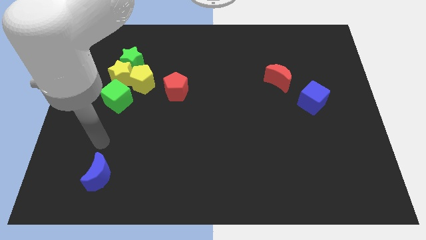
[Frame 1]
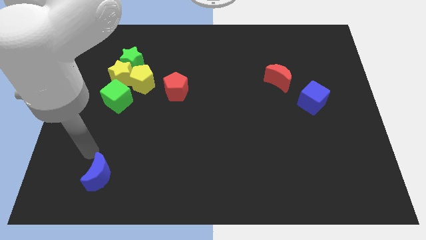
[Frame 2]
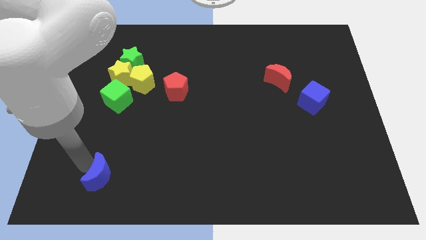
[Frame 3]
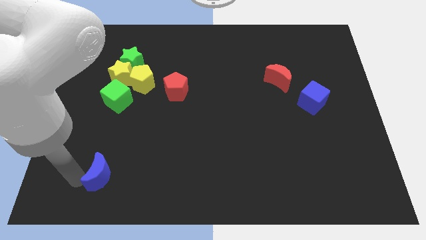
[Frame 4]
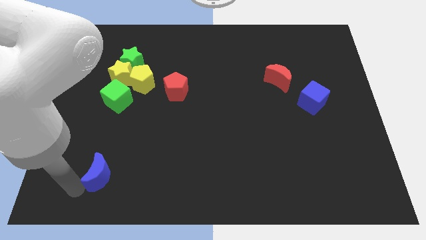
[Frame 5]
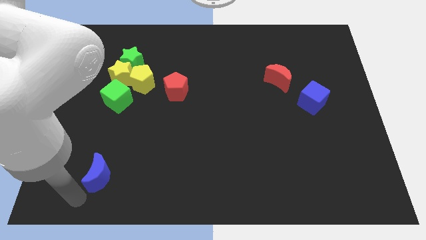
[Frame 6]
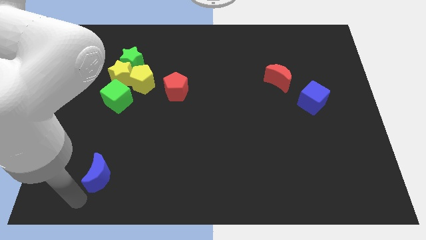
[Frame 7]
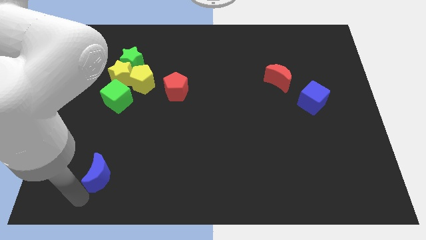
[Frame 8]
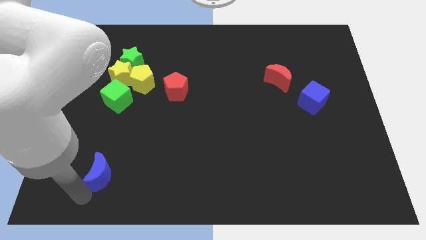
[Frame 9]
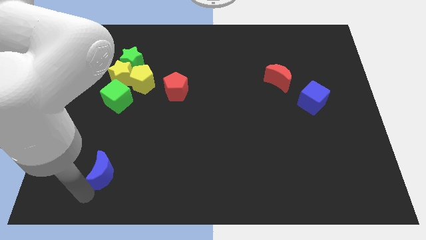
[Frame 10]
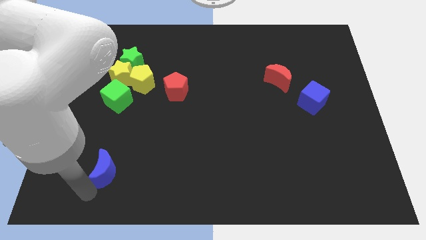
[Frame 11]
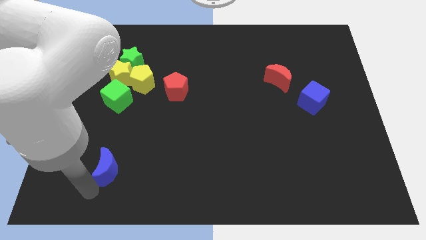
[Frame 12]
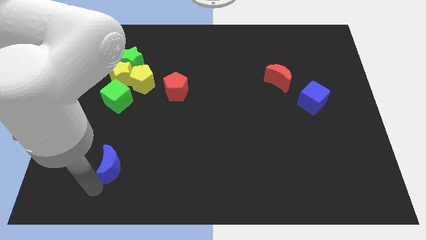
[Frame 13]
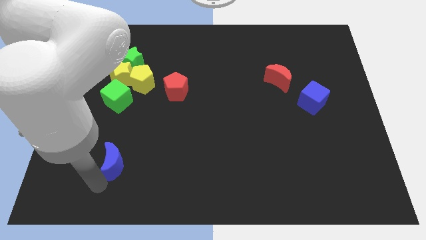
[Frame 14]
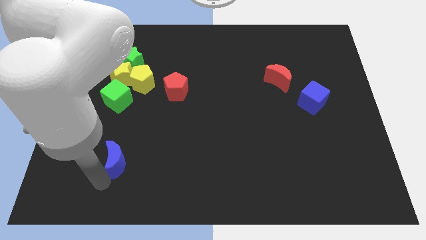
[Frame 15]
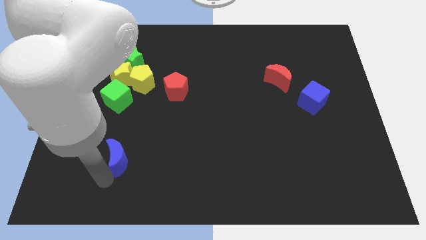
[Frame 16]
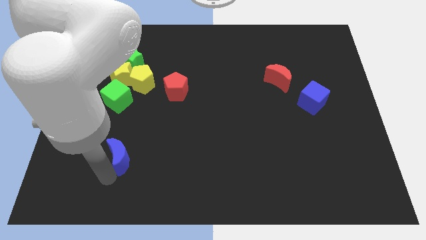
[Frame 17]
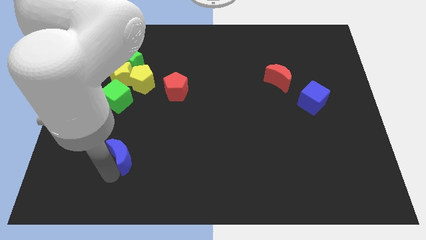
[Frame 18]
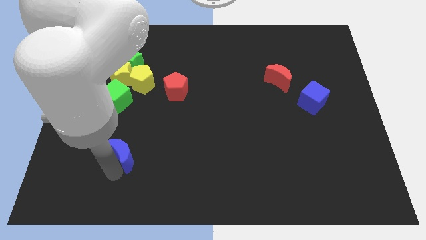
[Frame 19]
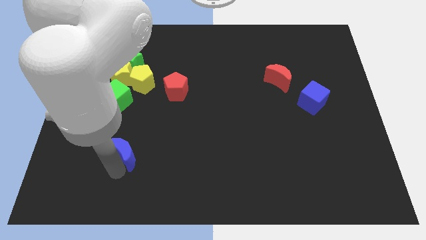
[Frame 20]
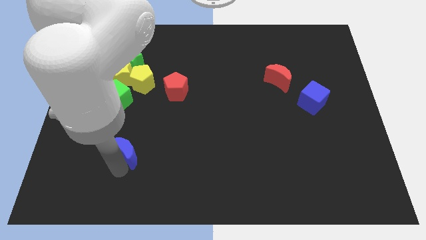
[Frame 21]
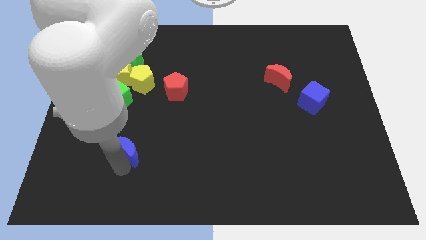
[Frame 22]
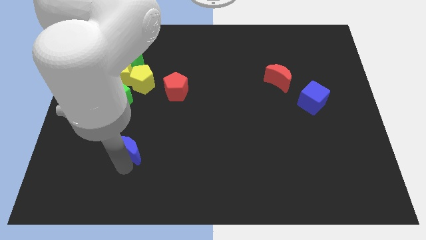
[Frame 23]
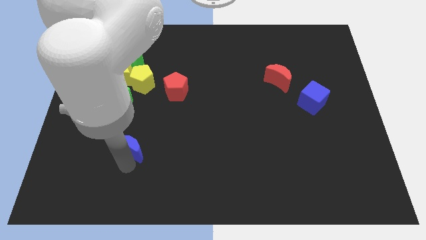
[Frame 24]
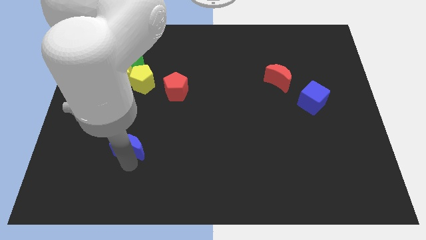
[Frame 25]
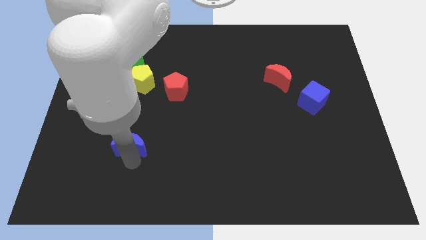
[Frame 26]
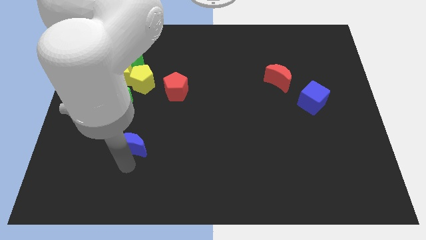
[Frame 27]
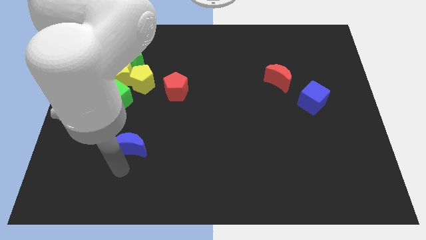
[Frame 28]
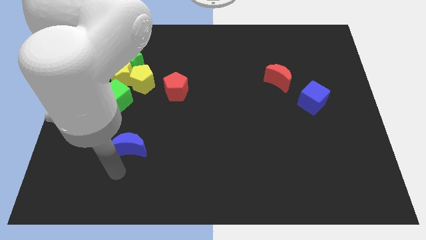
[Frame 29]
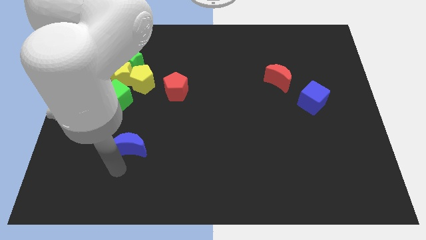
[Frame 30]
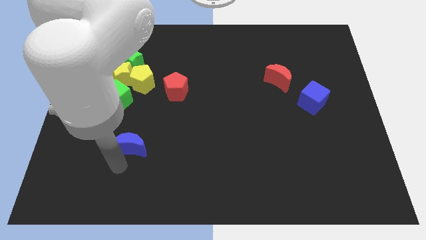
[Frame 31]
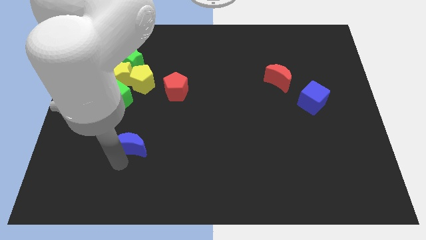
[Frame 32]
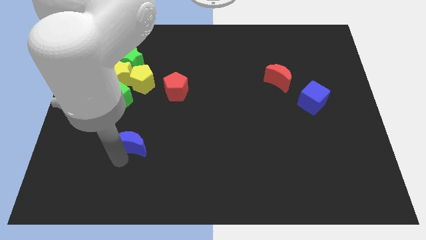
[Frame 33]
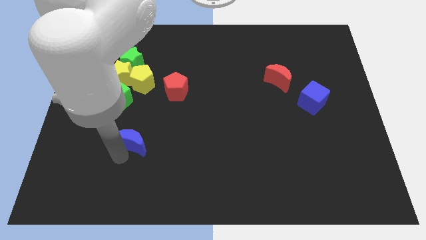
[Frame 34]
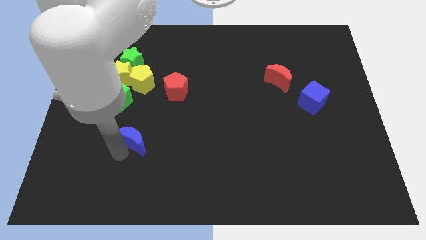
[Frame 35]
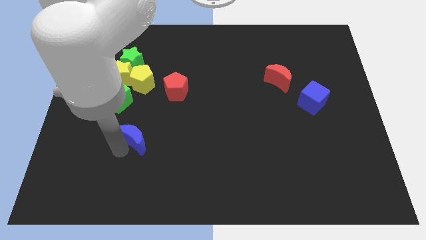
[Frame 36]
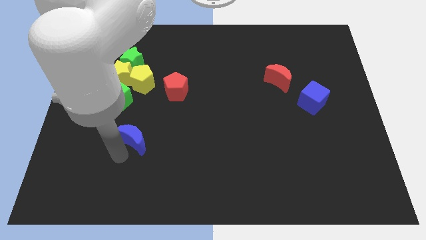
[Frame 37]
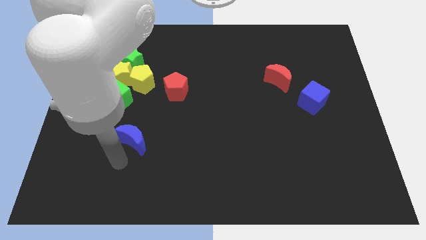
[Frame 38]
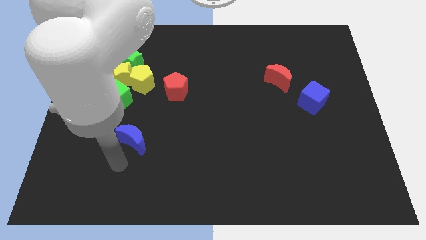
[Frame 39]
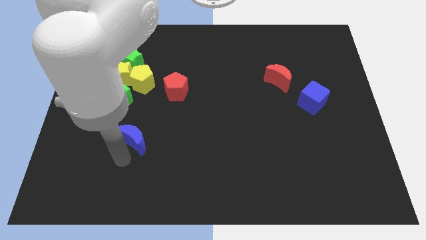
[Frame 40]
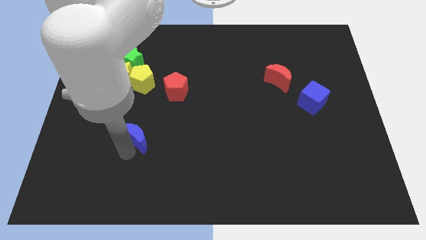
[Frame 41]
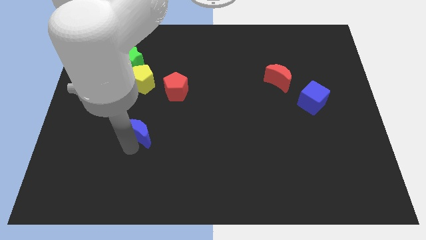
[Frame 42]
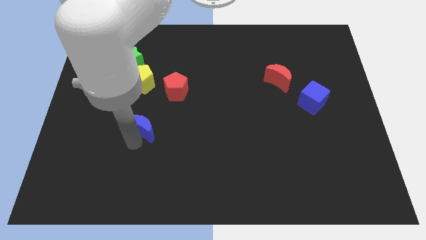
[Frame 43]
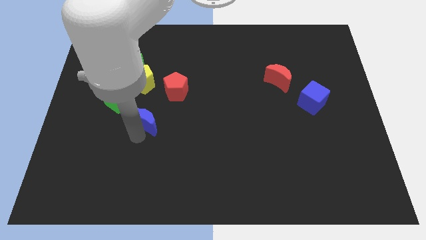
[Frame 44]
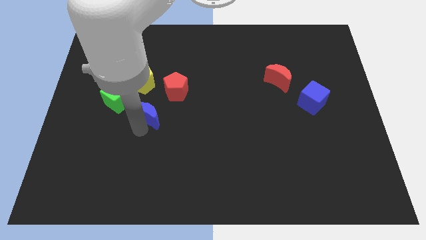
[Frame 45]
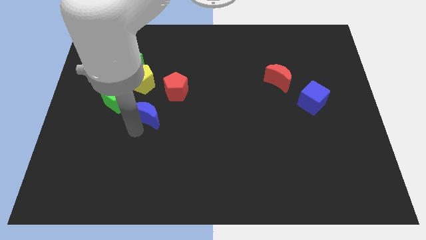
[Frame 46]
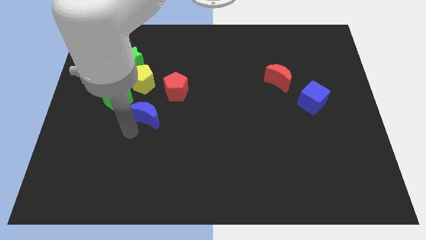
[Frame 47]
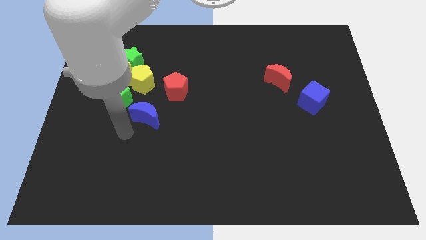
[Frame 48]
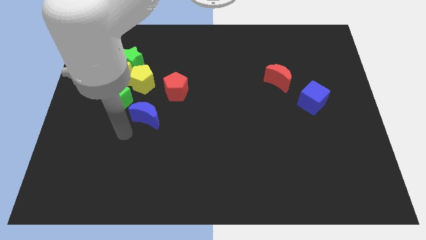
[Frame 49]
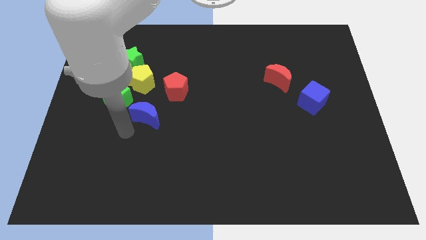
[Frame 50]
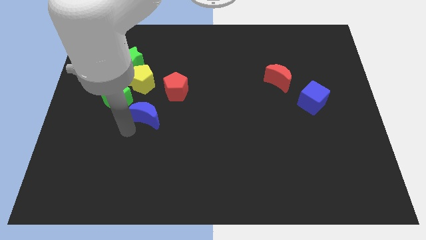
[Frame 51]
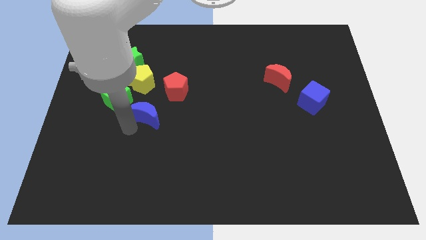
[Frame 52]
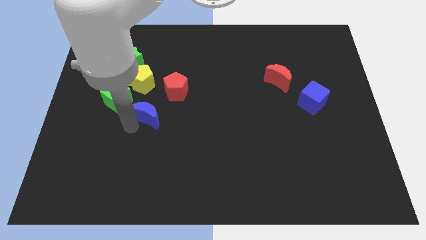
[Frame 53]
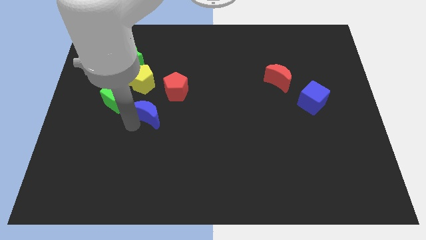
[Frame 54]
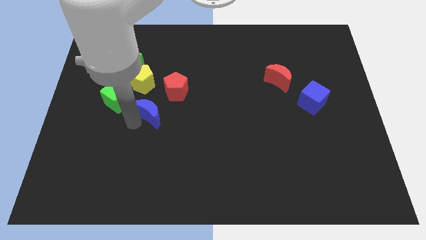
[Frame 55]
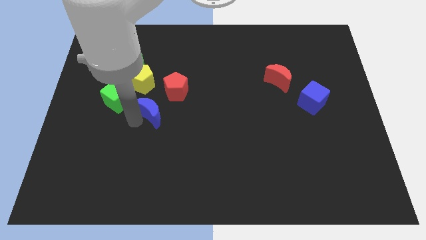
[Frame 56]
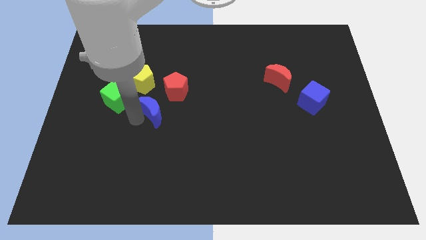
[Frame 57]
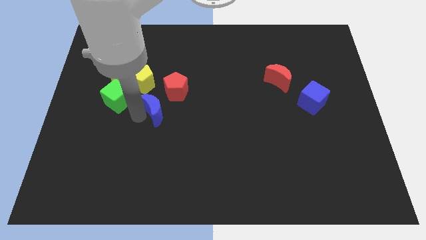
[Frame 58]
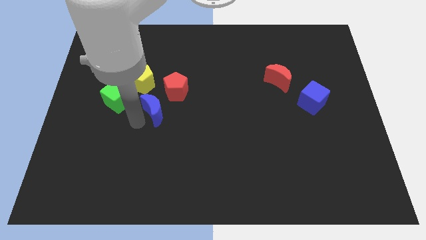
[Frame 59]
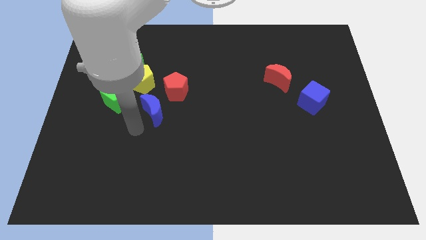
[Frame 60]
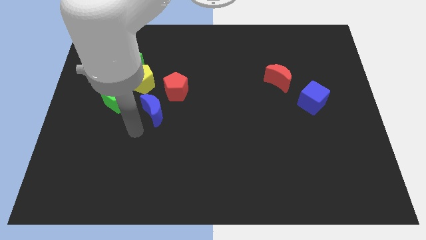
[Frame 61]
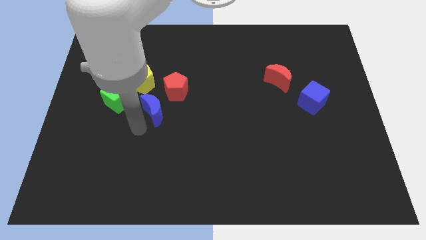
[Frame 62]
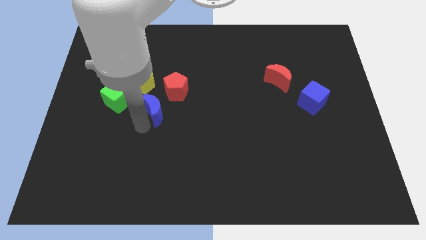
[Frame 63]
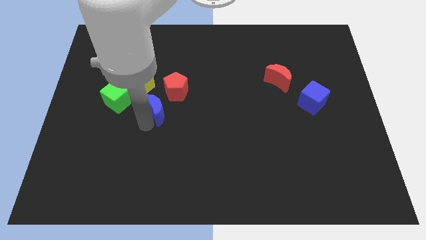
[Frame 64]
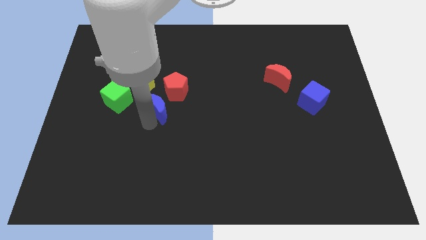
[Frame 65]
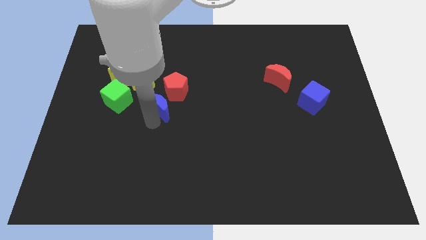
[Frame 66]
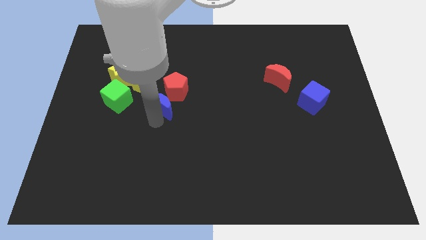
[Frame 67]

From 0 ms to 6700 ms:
move the blue moon to the red pentagon
